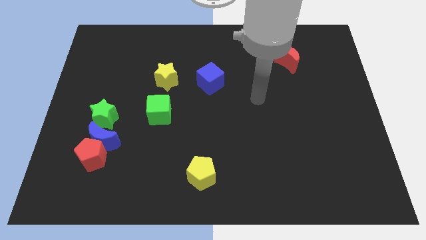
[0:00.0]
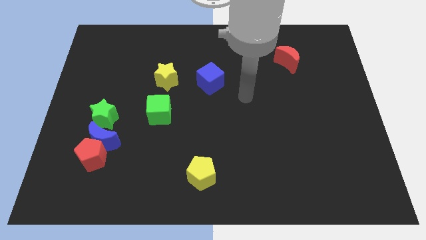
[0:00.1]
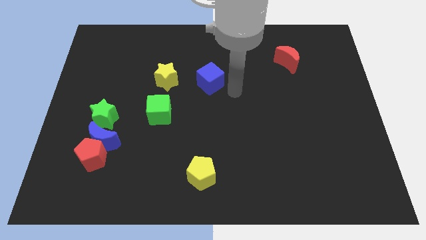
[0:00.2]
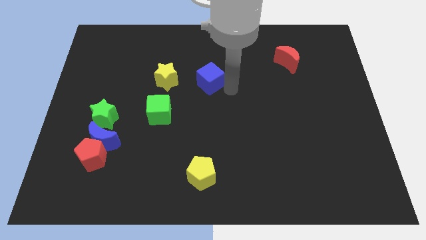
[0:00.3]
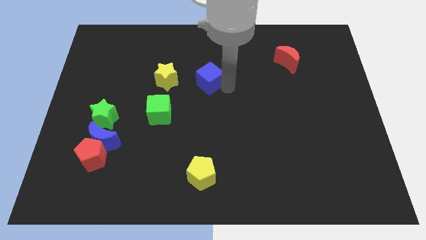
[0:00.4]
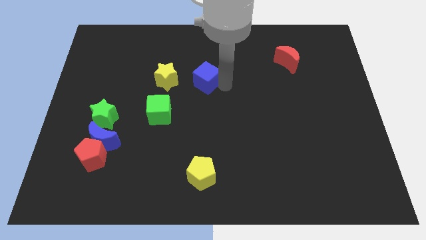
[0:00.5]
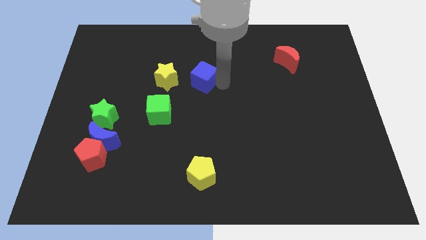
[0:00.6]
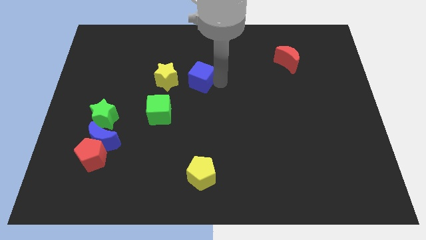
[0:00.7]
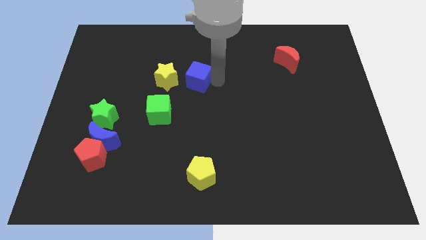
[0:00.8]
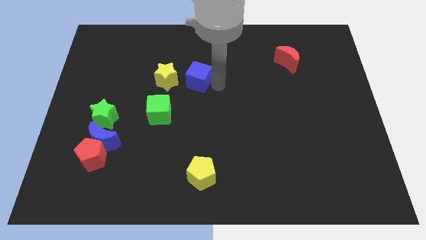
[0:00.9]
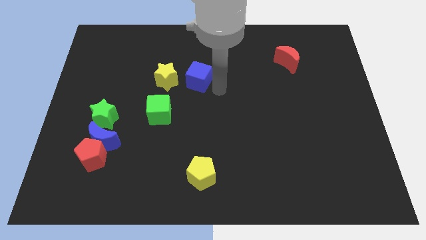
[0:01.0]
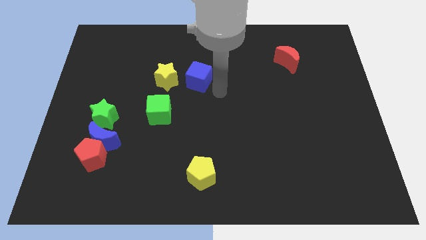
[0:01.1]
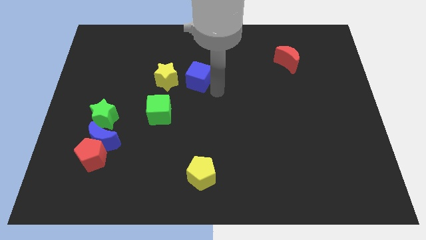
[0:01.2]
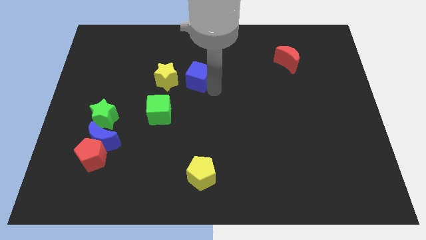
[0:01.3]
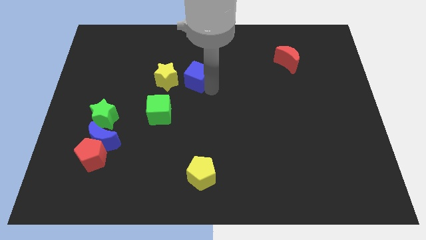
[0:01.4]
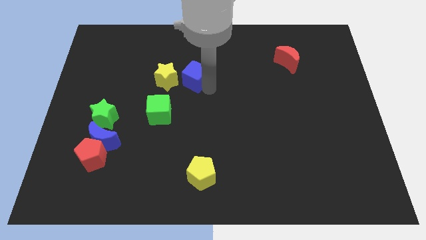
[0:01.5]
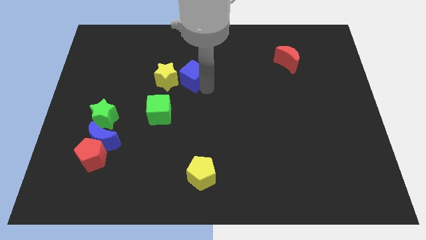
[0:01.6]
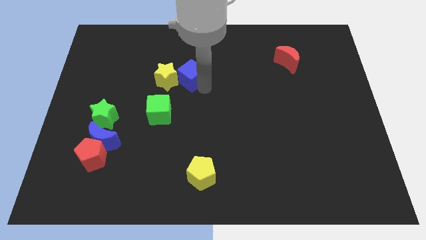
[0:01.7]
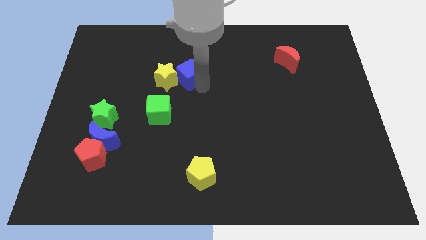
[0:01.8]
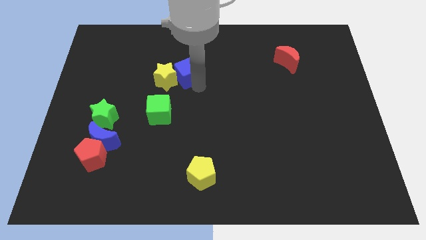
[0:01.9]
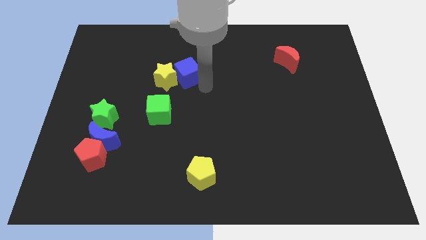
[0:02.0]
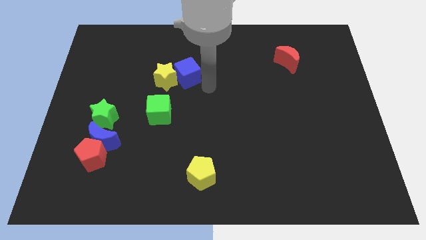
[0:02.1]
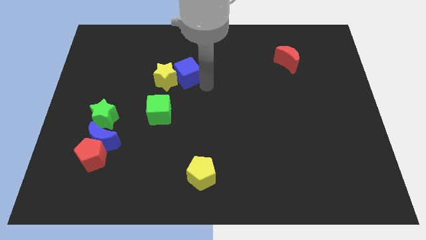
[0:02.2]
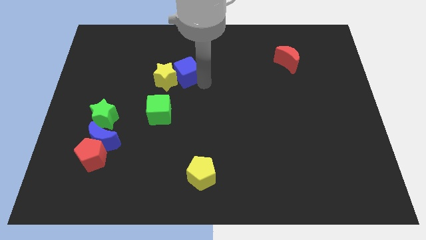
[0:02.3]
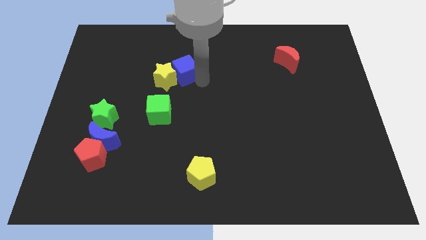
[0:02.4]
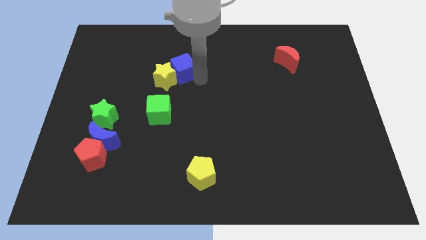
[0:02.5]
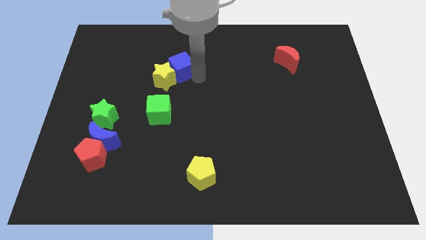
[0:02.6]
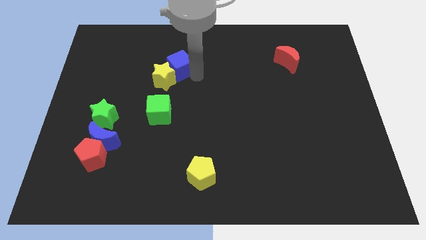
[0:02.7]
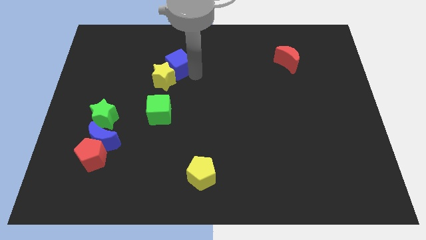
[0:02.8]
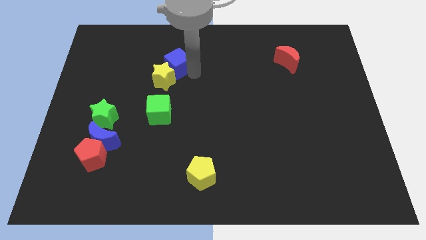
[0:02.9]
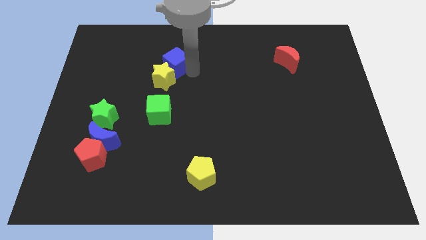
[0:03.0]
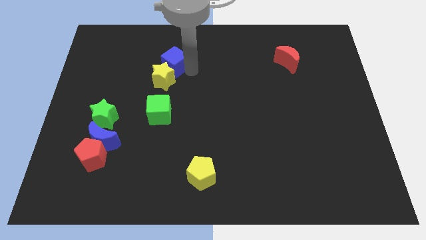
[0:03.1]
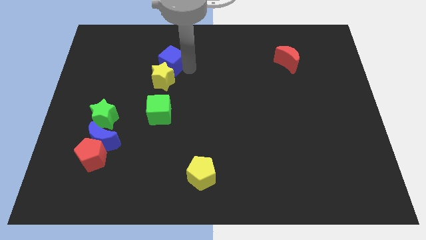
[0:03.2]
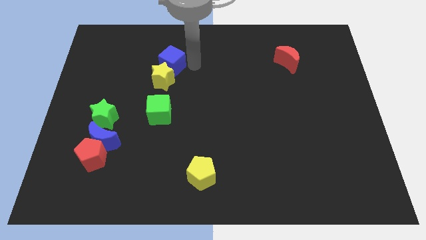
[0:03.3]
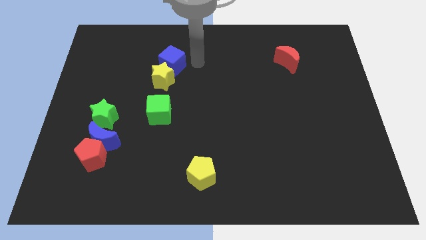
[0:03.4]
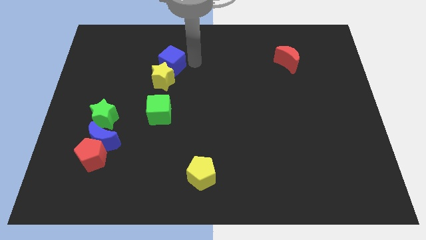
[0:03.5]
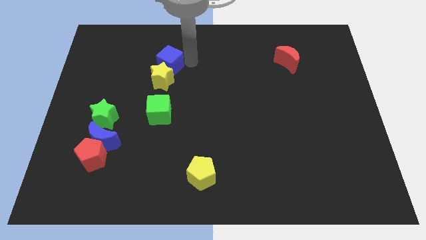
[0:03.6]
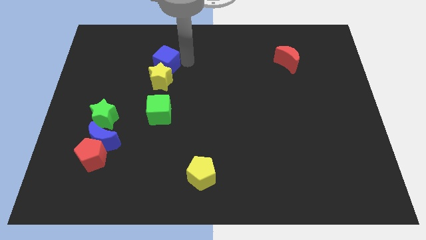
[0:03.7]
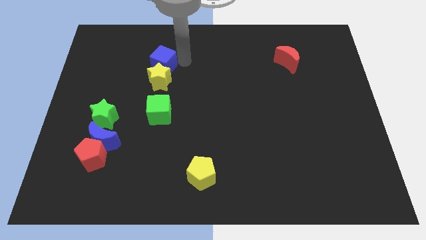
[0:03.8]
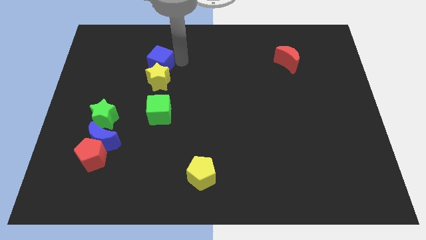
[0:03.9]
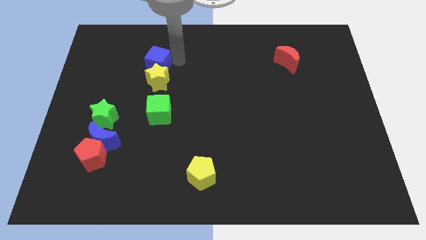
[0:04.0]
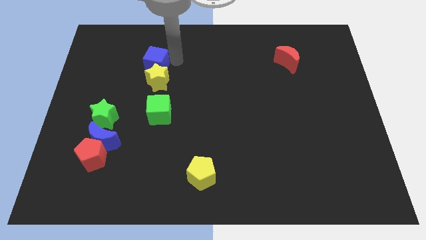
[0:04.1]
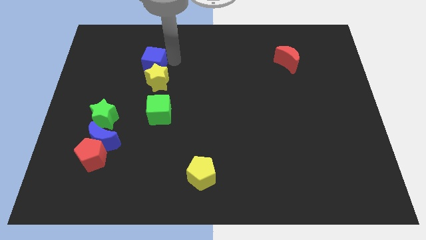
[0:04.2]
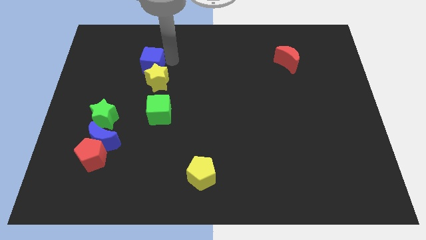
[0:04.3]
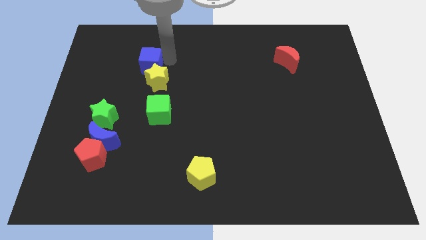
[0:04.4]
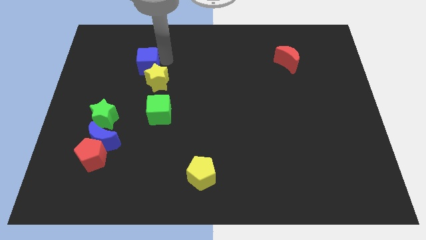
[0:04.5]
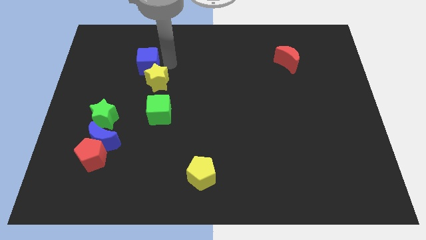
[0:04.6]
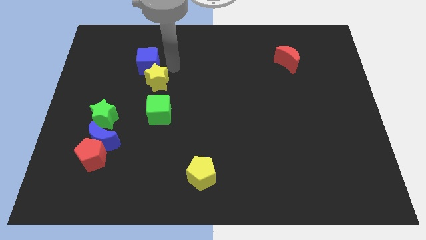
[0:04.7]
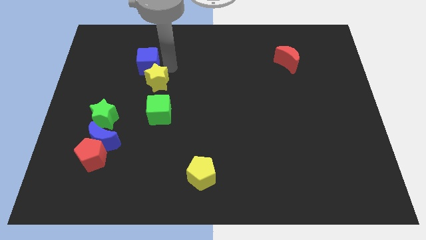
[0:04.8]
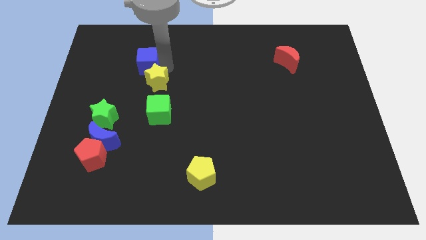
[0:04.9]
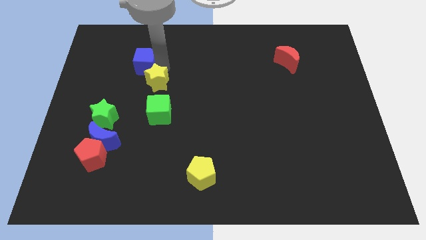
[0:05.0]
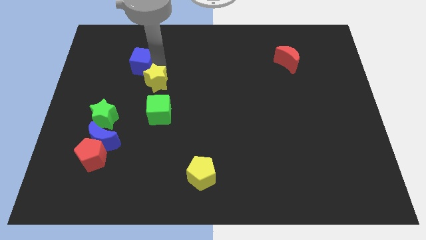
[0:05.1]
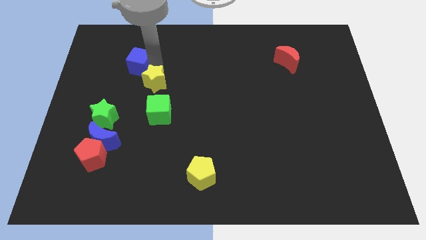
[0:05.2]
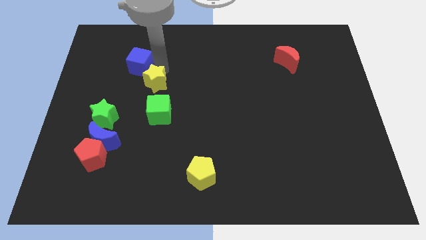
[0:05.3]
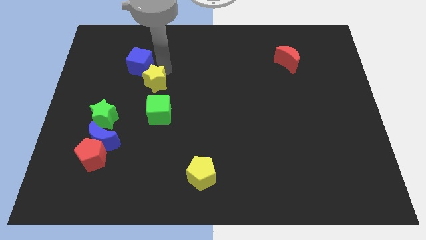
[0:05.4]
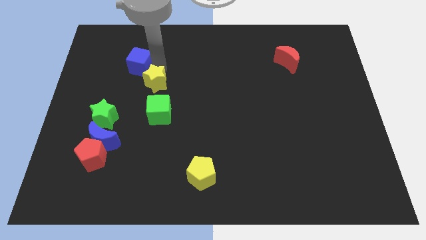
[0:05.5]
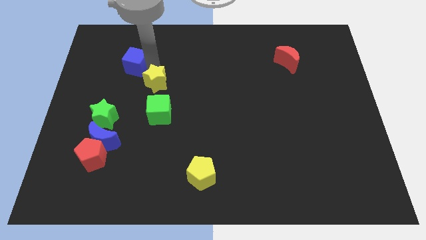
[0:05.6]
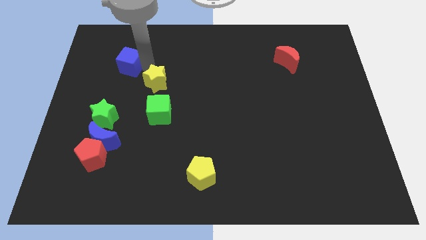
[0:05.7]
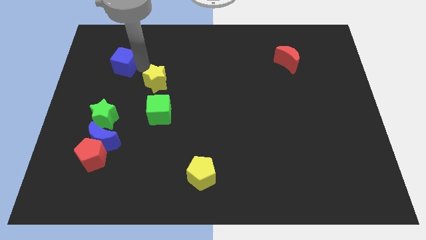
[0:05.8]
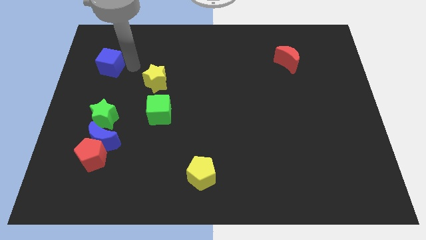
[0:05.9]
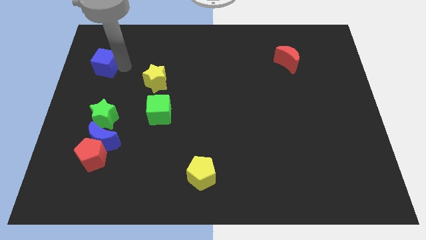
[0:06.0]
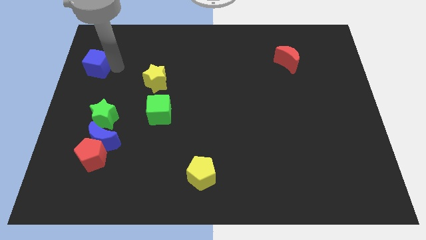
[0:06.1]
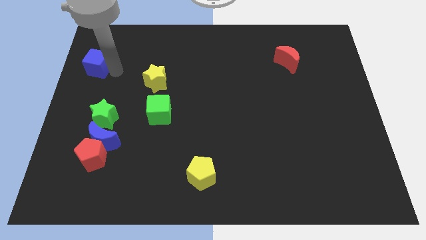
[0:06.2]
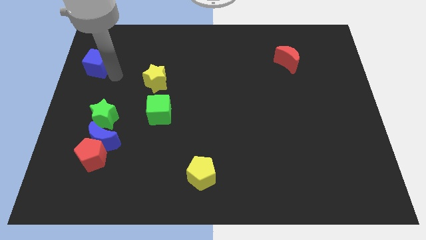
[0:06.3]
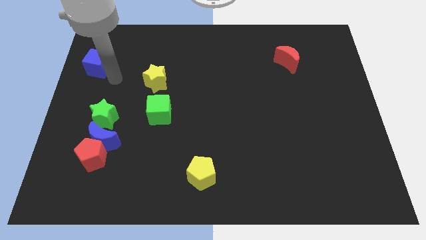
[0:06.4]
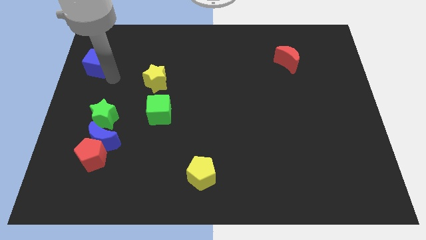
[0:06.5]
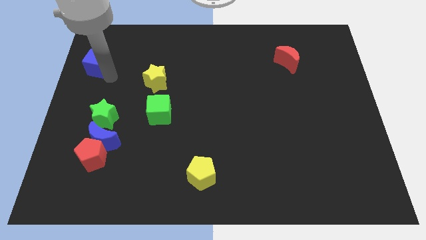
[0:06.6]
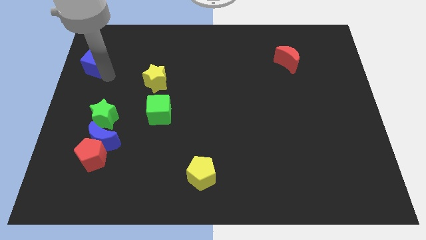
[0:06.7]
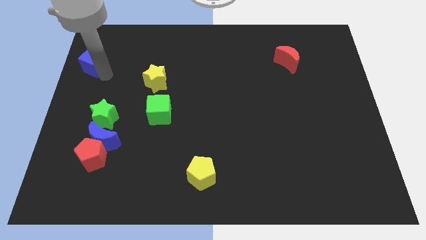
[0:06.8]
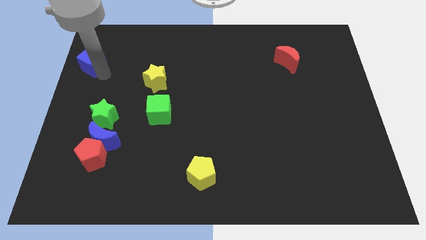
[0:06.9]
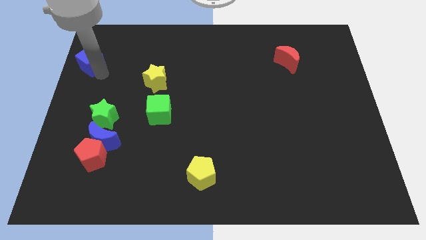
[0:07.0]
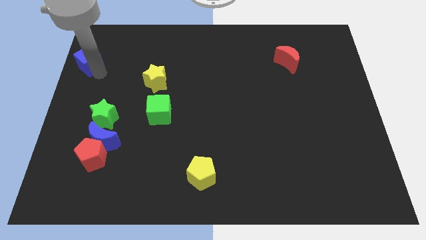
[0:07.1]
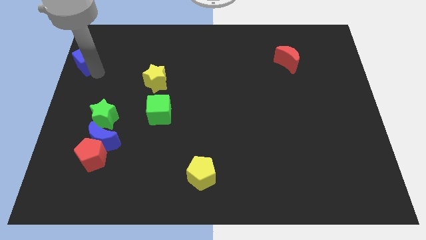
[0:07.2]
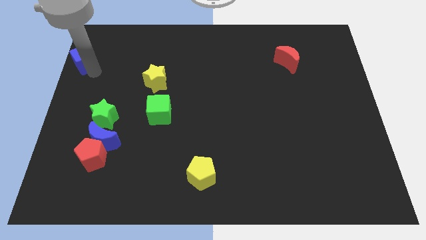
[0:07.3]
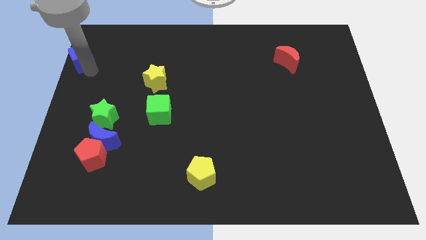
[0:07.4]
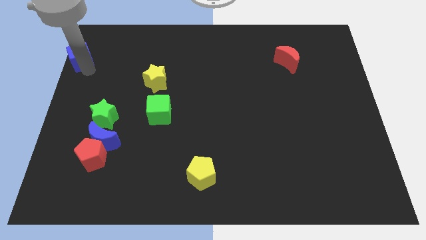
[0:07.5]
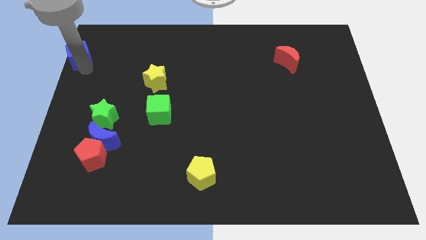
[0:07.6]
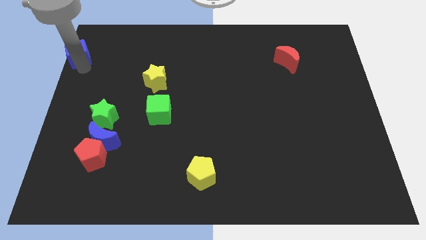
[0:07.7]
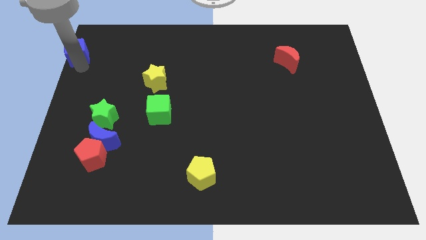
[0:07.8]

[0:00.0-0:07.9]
move the blue cube to the upper left corner
